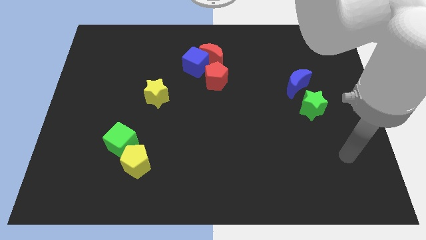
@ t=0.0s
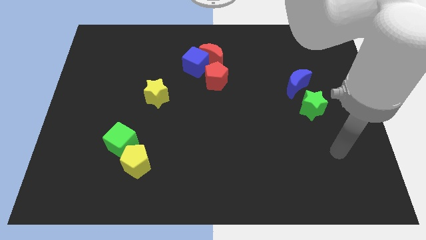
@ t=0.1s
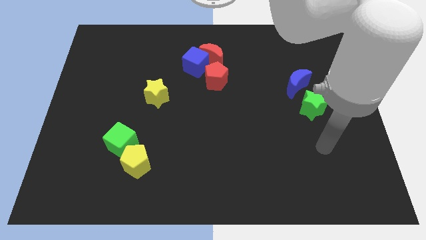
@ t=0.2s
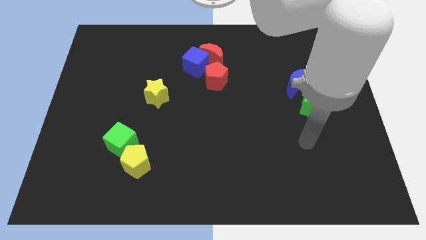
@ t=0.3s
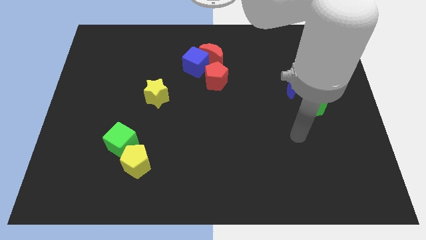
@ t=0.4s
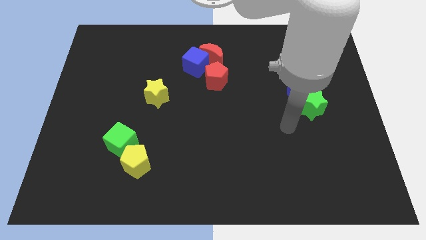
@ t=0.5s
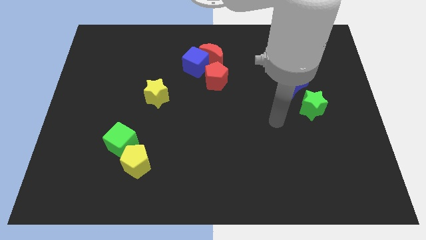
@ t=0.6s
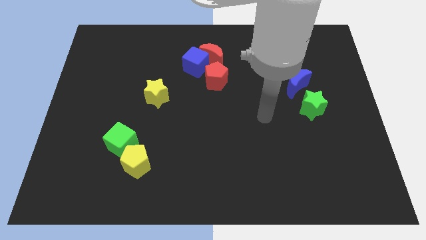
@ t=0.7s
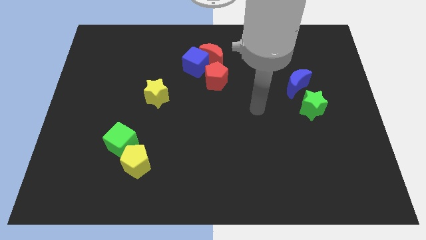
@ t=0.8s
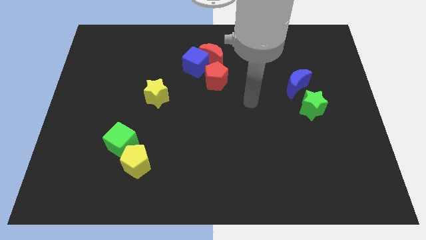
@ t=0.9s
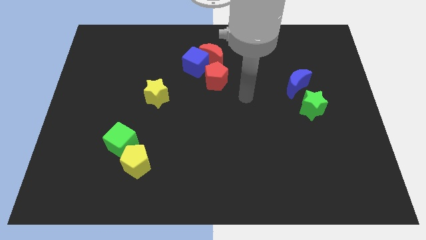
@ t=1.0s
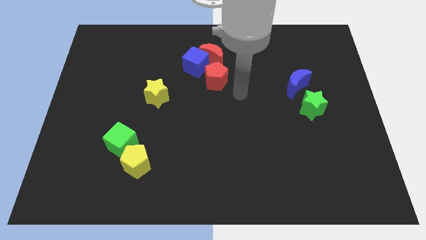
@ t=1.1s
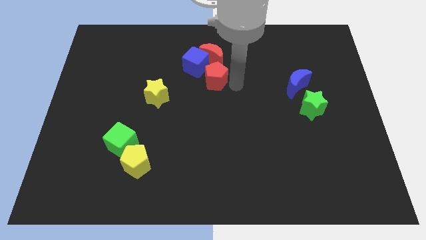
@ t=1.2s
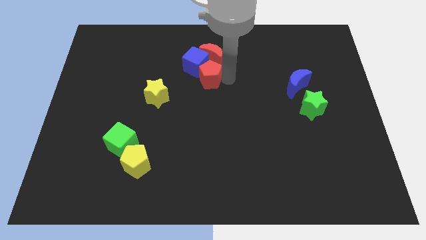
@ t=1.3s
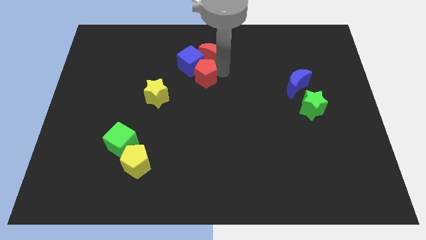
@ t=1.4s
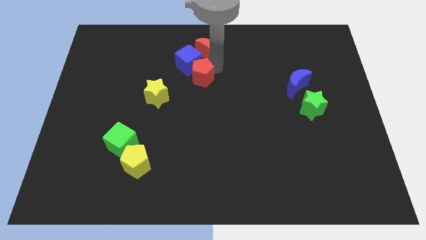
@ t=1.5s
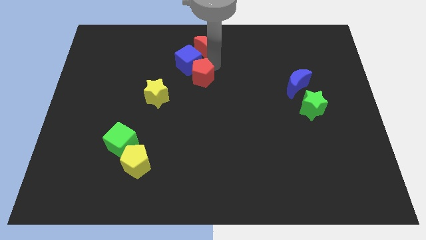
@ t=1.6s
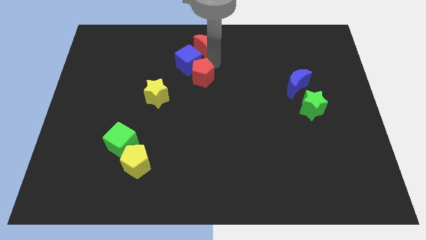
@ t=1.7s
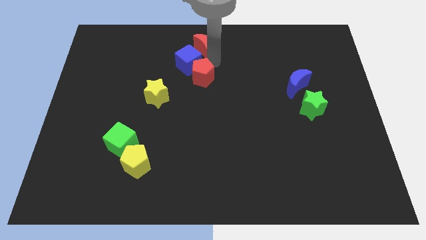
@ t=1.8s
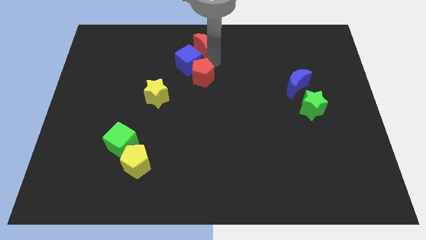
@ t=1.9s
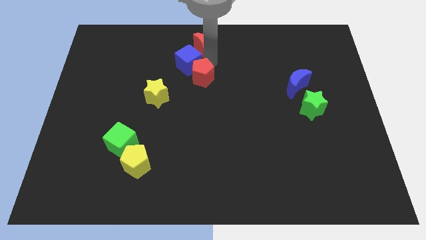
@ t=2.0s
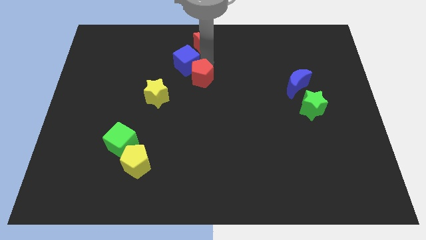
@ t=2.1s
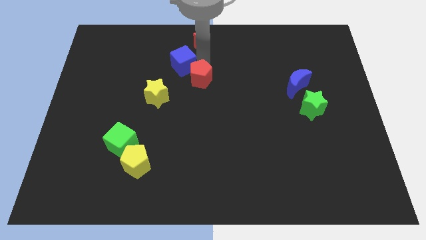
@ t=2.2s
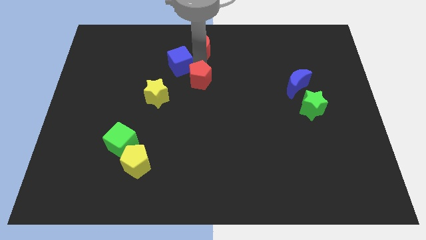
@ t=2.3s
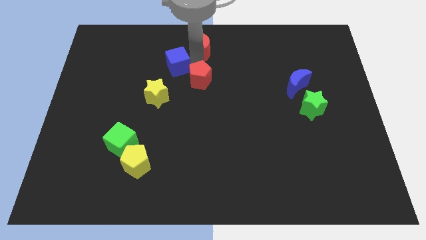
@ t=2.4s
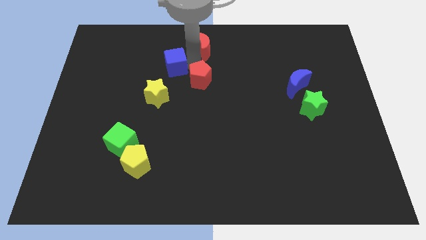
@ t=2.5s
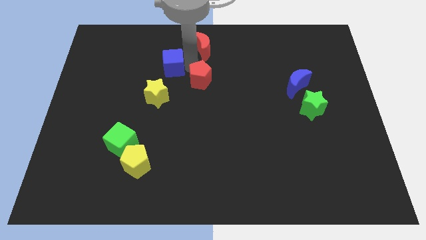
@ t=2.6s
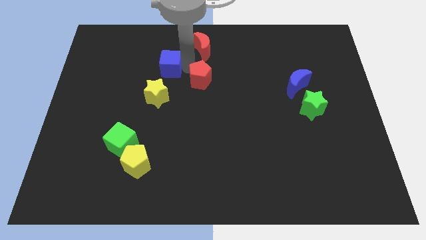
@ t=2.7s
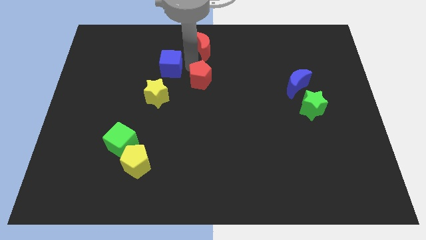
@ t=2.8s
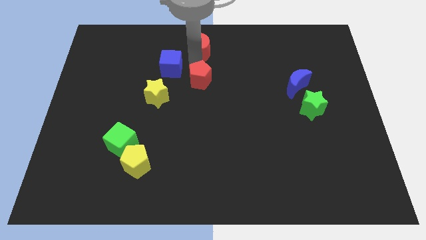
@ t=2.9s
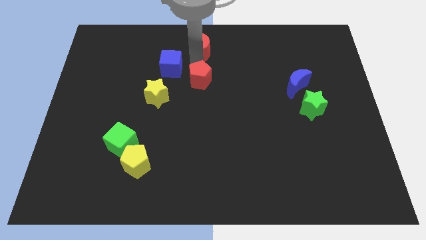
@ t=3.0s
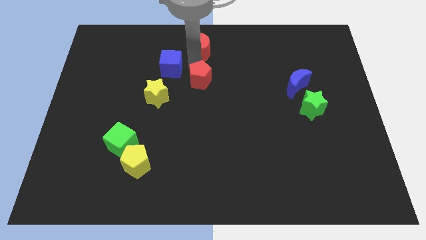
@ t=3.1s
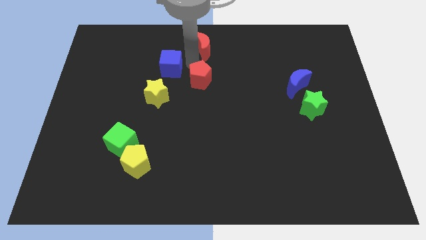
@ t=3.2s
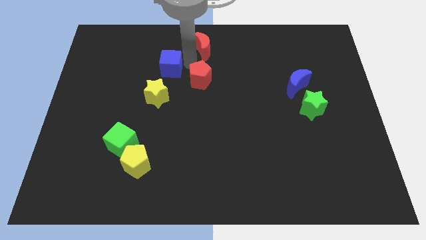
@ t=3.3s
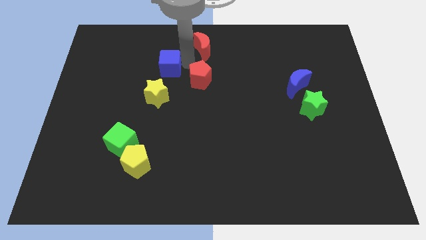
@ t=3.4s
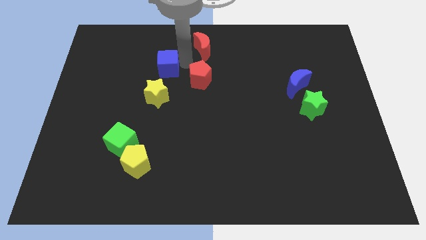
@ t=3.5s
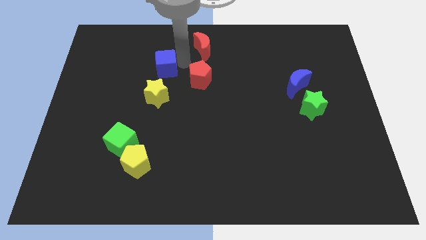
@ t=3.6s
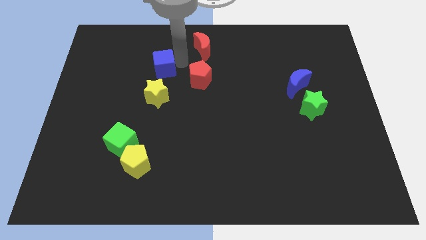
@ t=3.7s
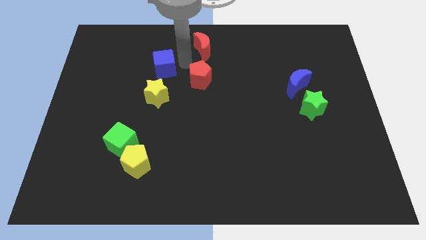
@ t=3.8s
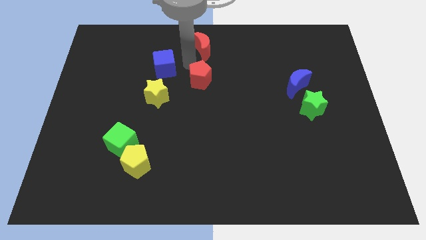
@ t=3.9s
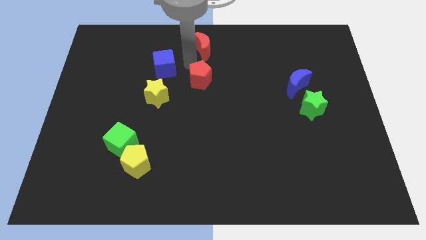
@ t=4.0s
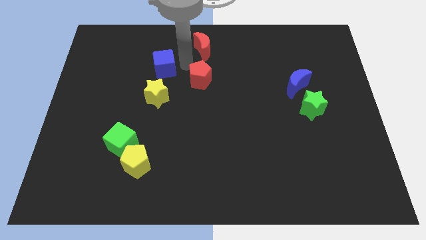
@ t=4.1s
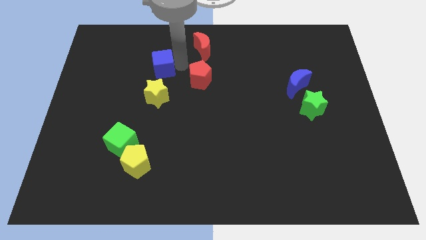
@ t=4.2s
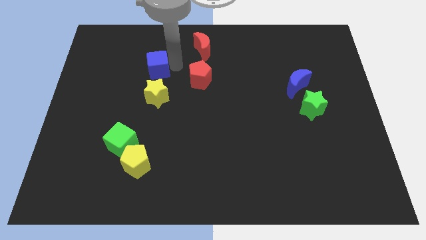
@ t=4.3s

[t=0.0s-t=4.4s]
separate the blue cube from the red moon and red pentagon

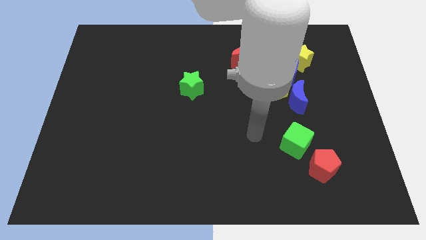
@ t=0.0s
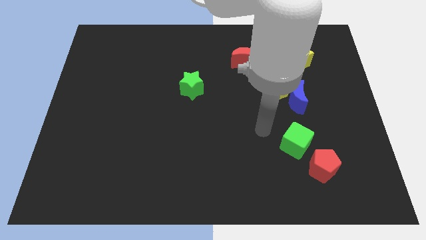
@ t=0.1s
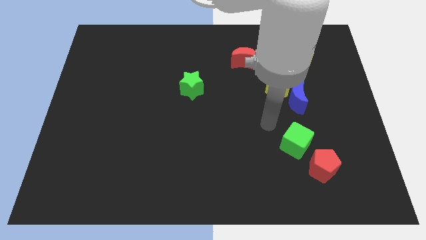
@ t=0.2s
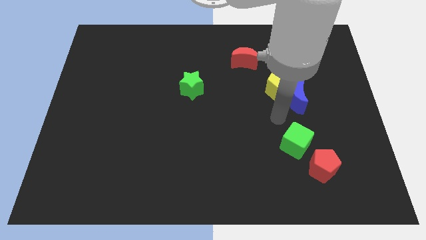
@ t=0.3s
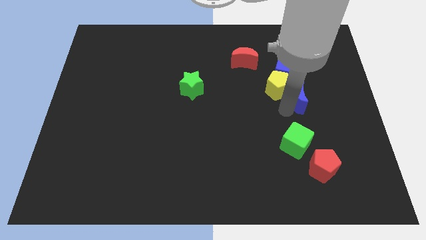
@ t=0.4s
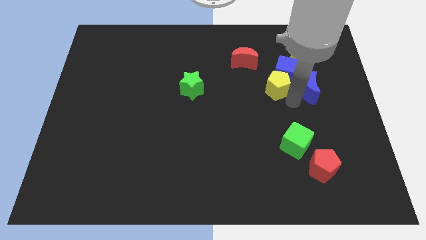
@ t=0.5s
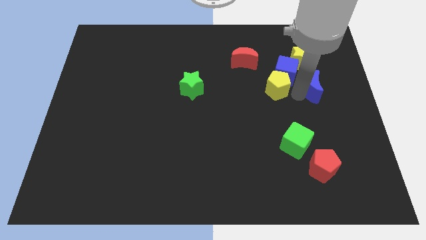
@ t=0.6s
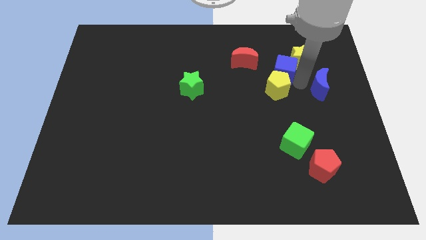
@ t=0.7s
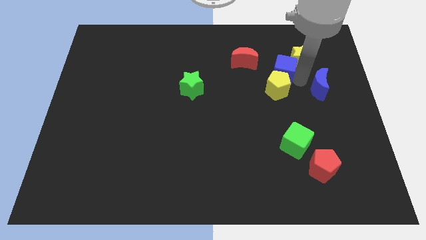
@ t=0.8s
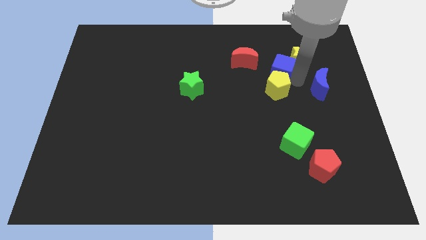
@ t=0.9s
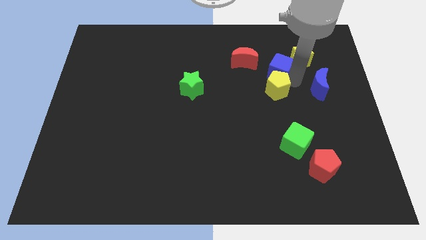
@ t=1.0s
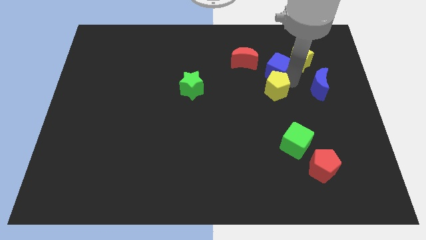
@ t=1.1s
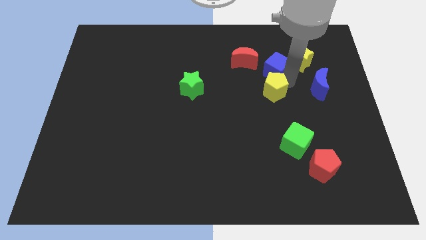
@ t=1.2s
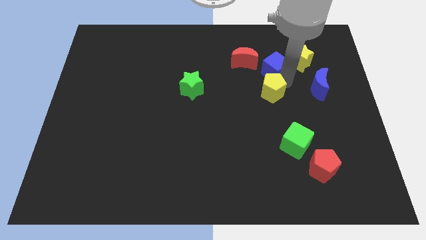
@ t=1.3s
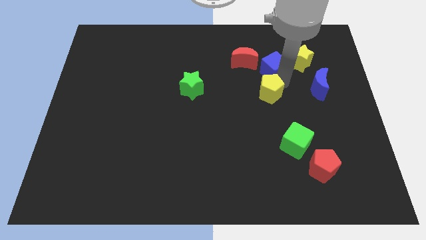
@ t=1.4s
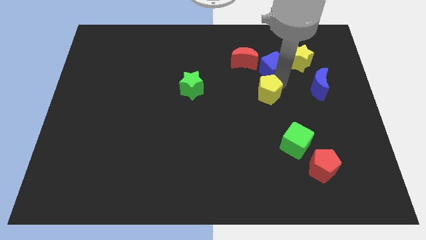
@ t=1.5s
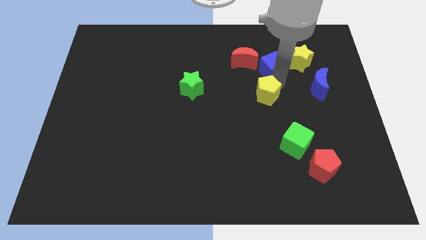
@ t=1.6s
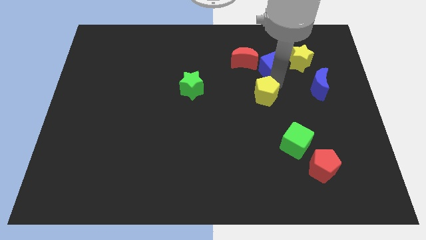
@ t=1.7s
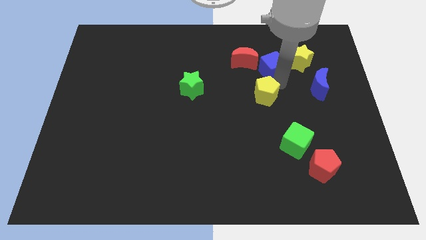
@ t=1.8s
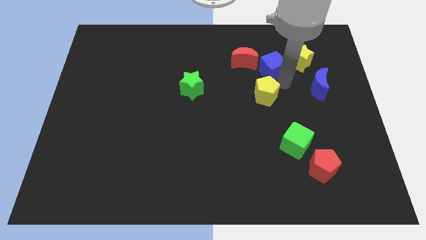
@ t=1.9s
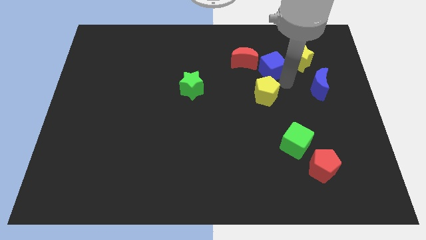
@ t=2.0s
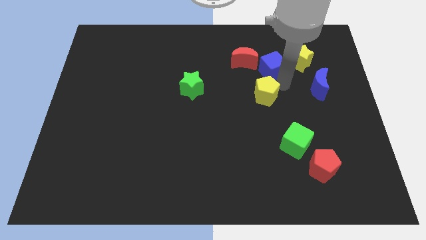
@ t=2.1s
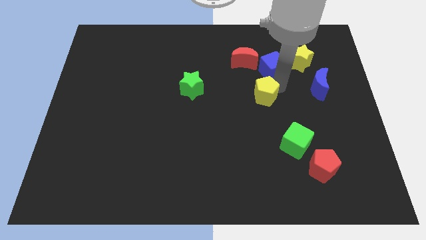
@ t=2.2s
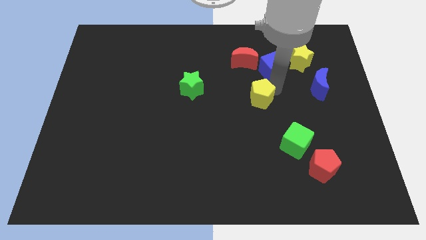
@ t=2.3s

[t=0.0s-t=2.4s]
move the yellow pentagon away from the blue cube and blue moon

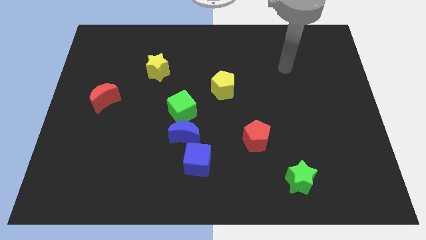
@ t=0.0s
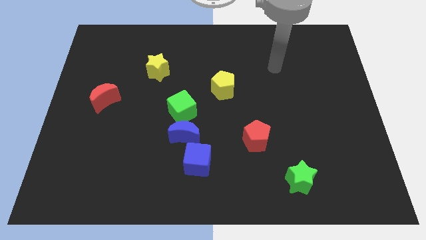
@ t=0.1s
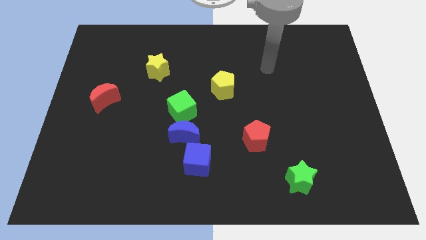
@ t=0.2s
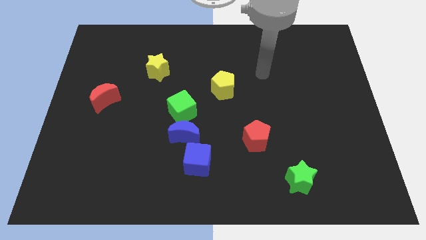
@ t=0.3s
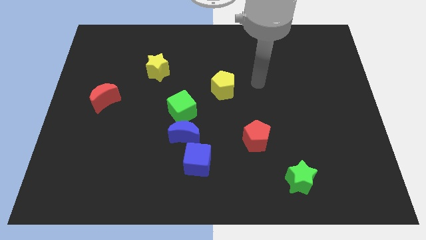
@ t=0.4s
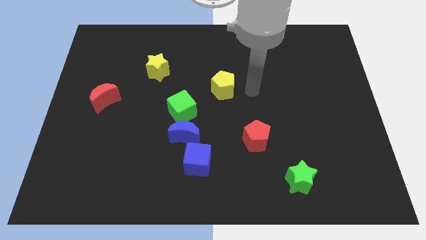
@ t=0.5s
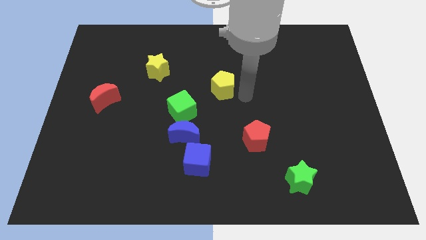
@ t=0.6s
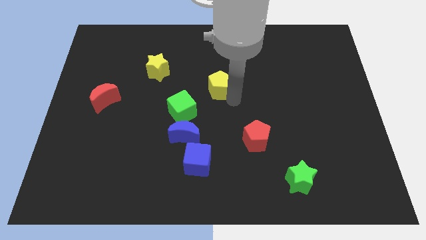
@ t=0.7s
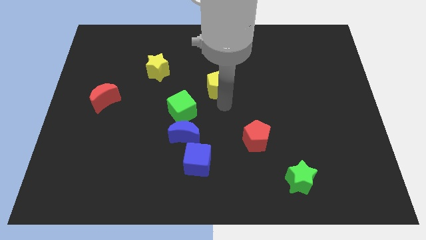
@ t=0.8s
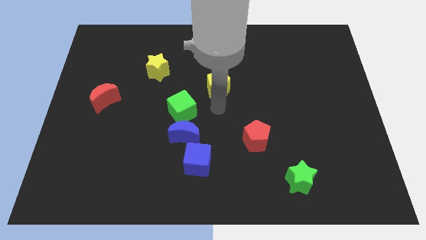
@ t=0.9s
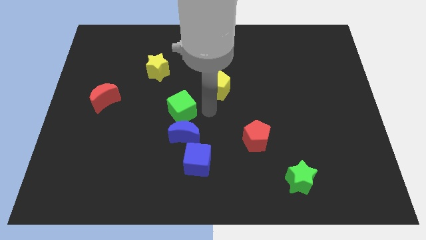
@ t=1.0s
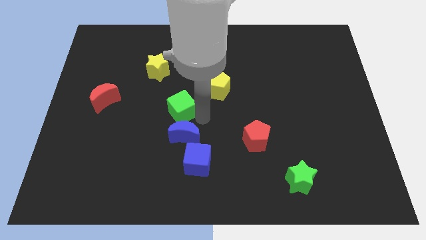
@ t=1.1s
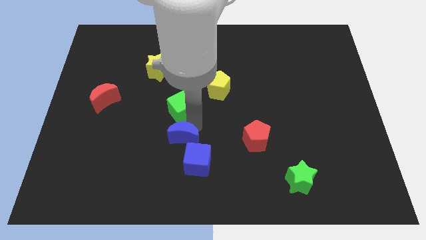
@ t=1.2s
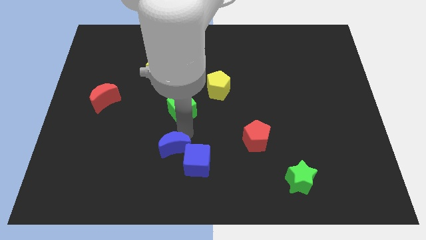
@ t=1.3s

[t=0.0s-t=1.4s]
separate the green cube from the blue moon

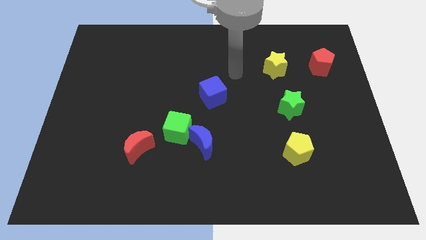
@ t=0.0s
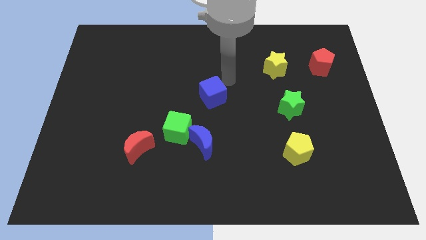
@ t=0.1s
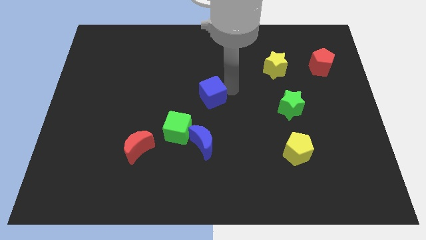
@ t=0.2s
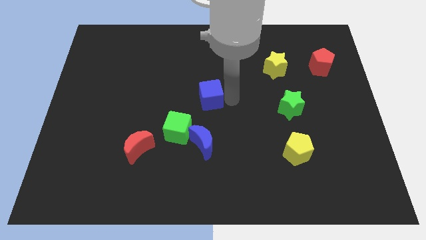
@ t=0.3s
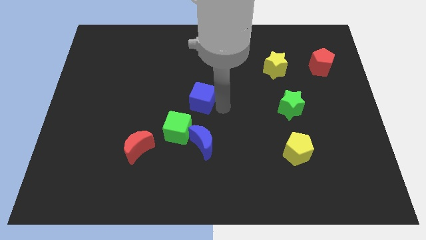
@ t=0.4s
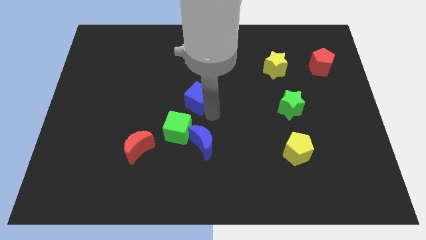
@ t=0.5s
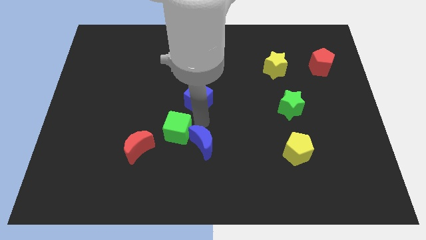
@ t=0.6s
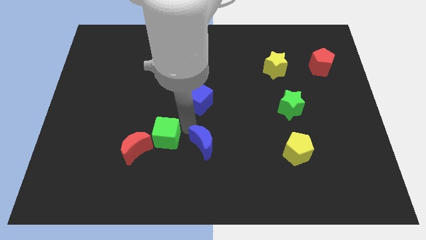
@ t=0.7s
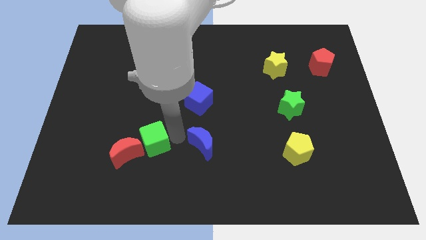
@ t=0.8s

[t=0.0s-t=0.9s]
pull the blue moon apart from the green cube

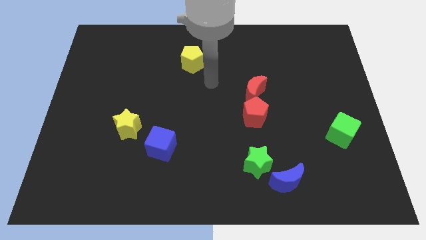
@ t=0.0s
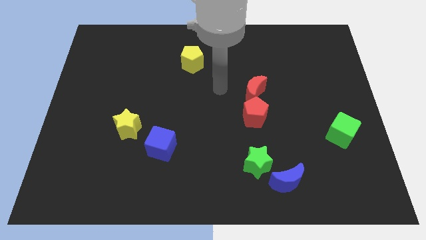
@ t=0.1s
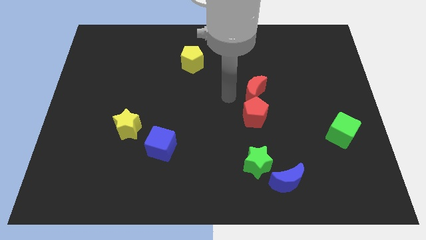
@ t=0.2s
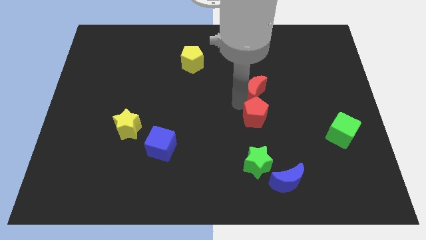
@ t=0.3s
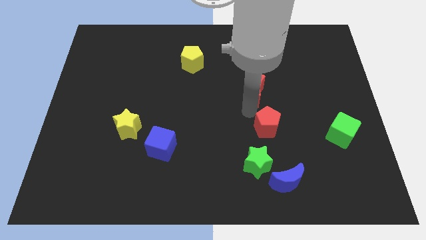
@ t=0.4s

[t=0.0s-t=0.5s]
move the red moon away from the red pentagon
